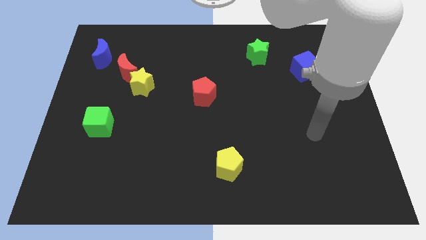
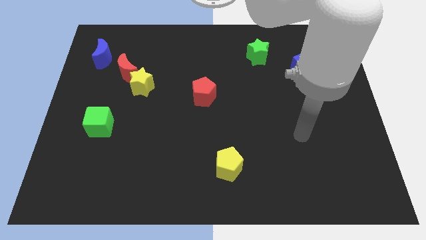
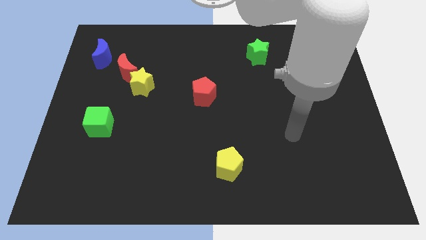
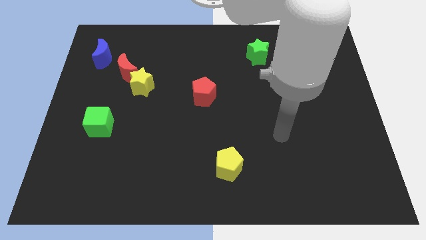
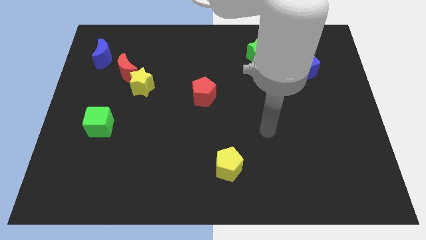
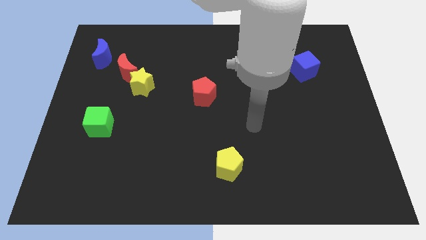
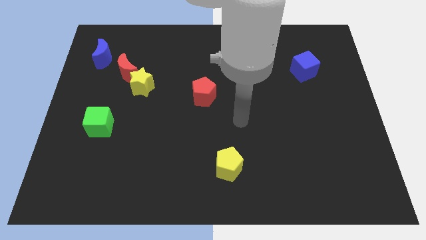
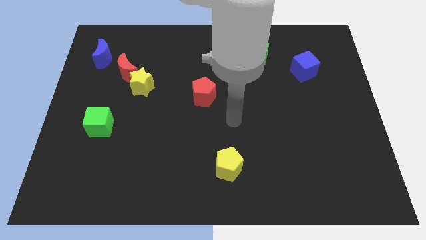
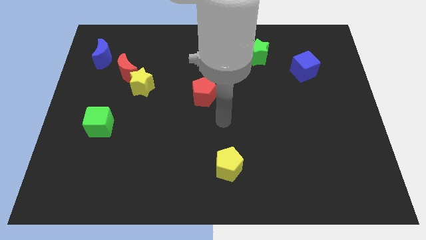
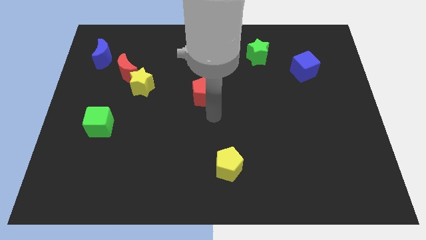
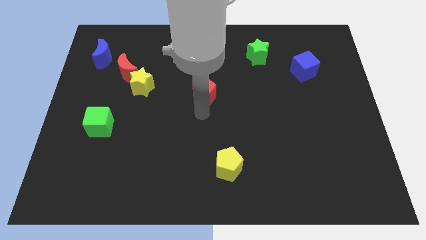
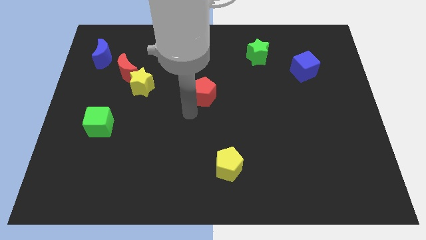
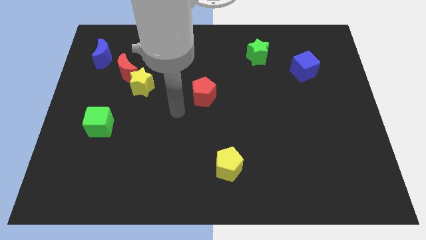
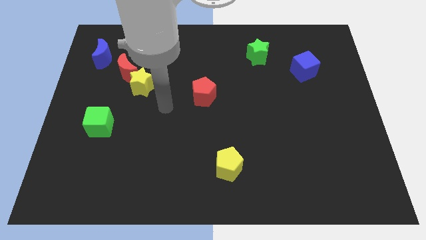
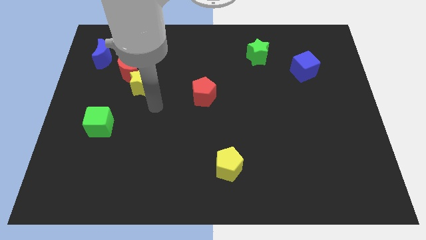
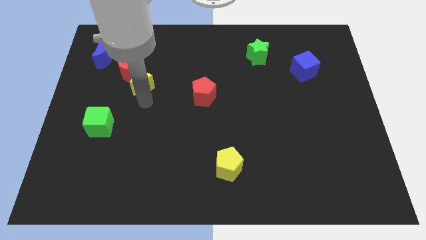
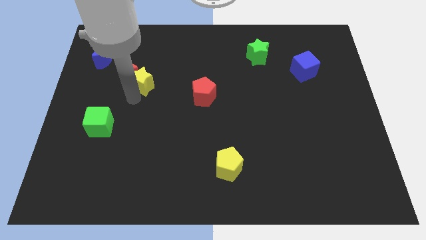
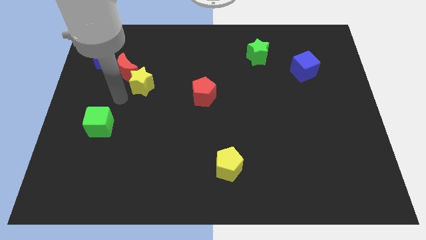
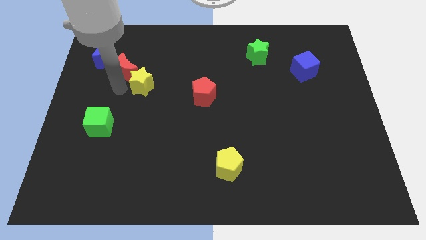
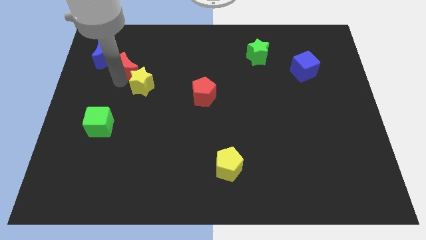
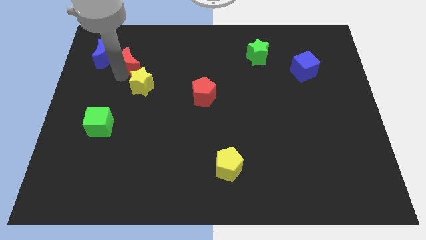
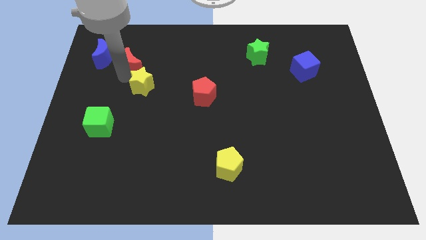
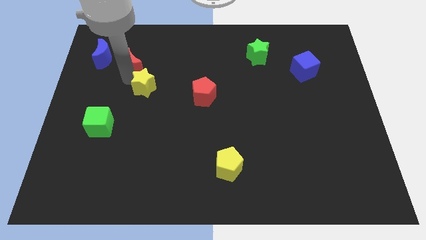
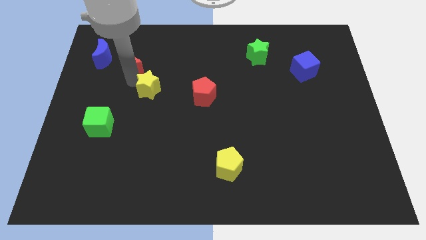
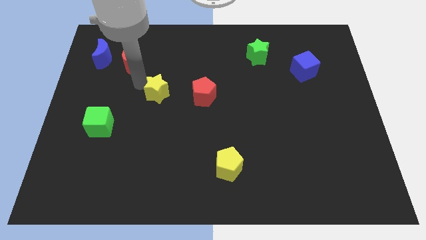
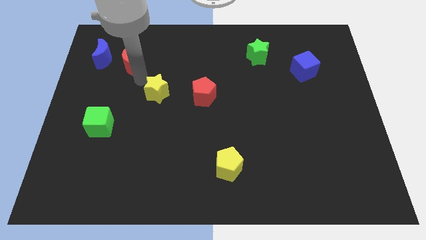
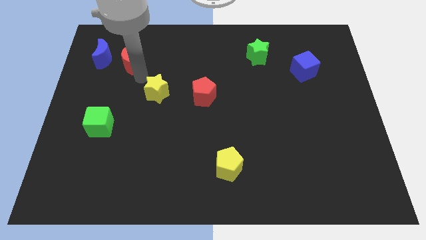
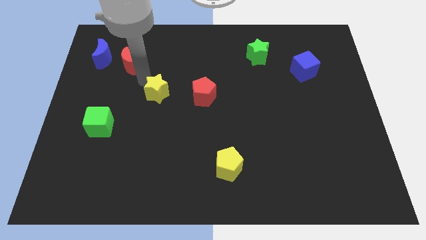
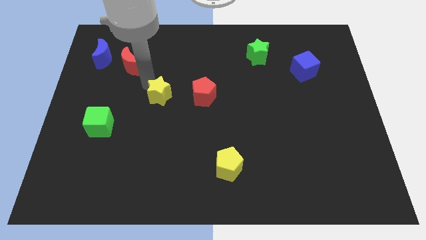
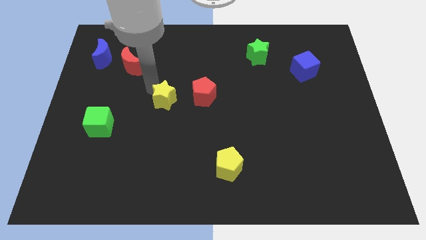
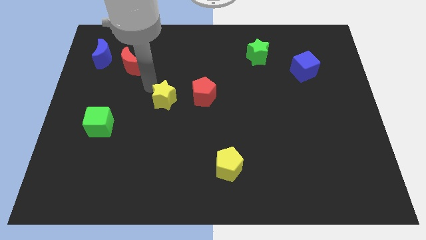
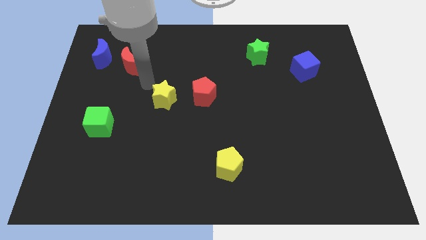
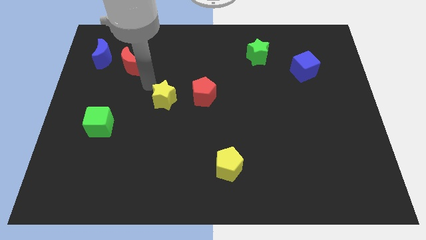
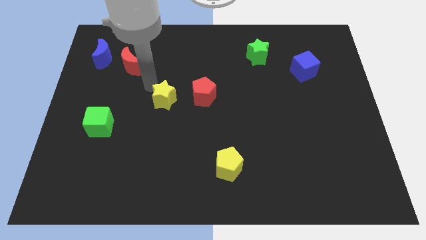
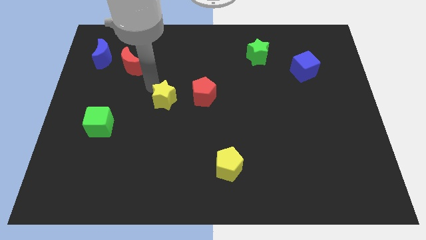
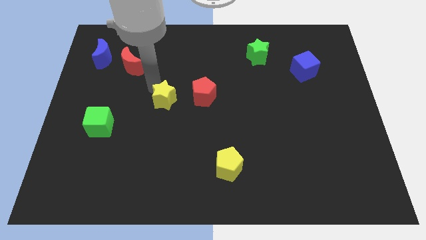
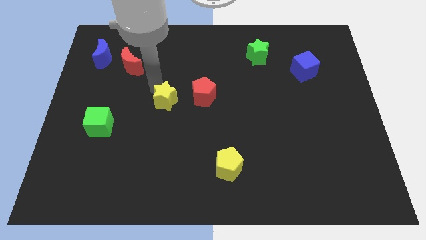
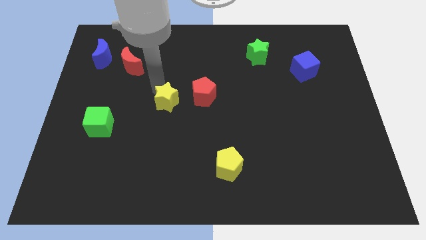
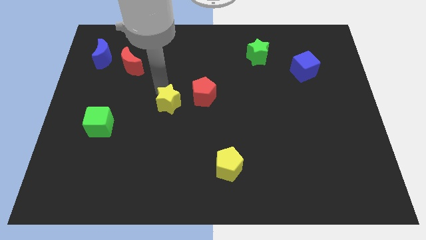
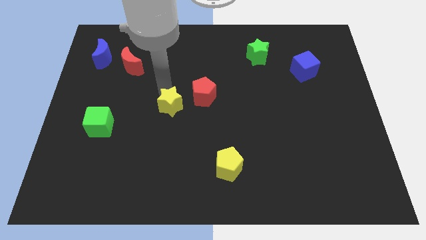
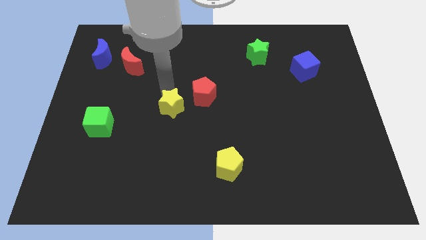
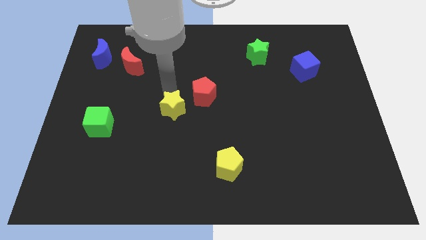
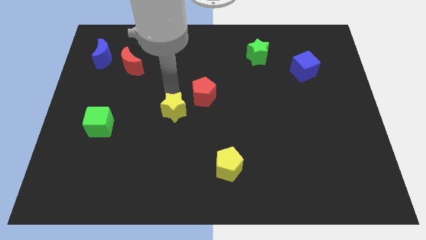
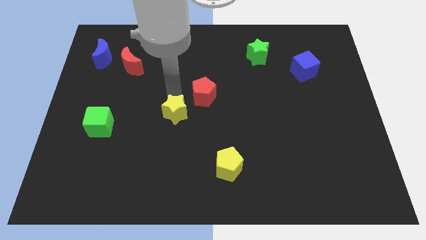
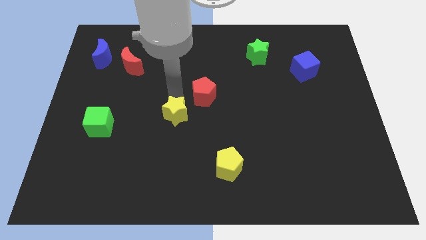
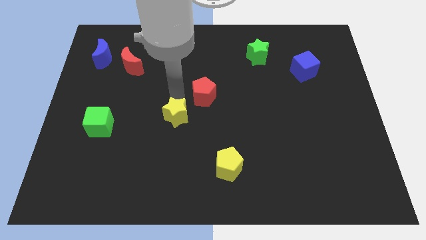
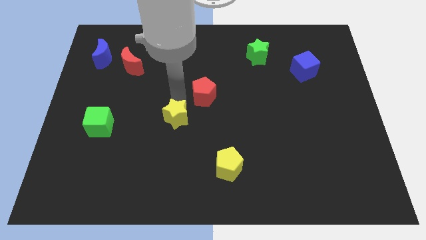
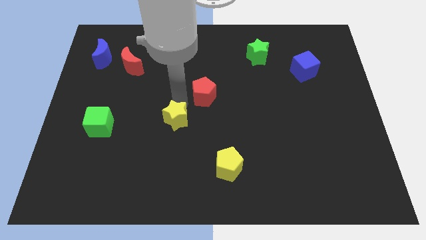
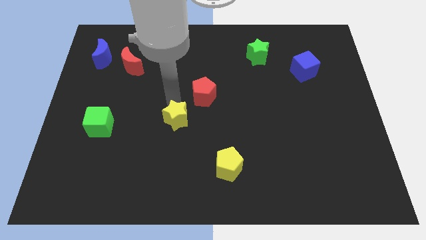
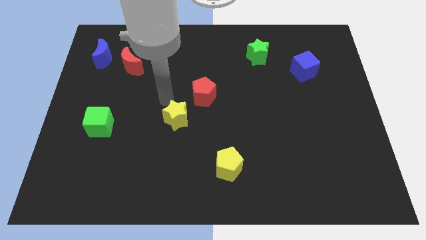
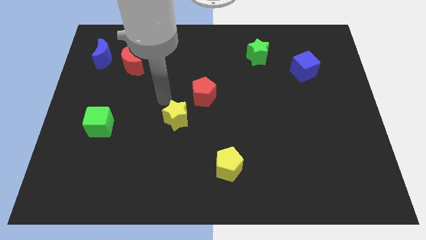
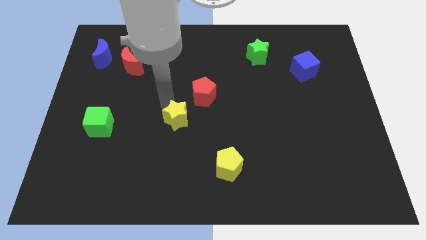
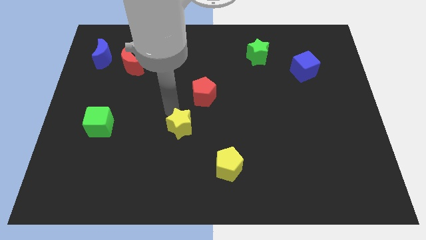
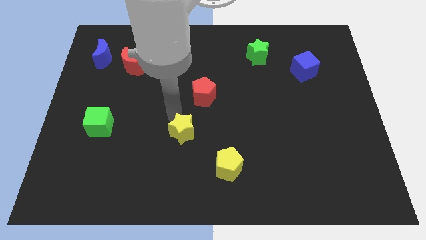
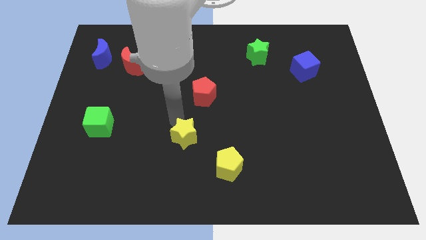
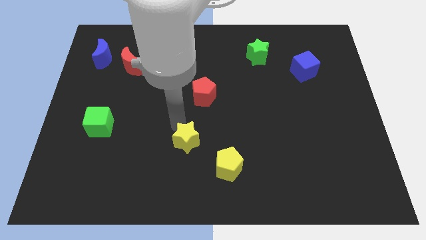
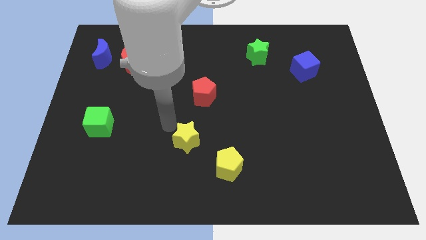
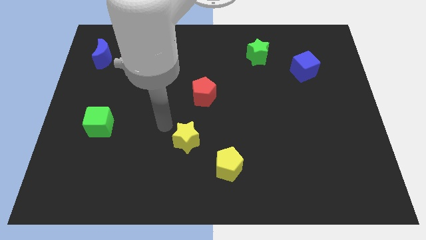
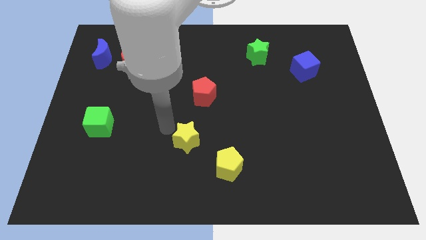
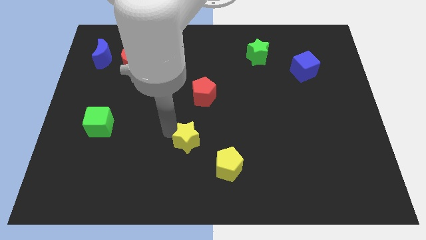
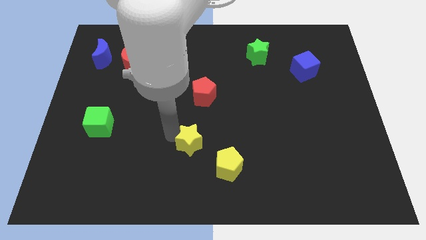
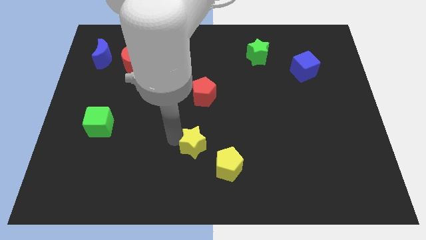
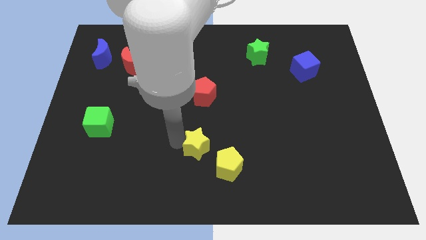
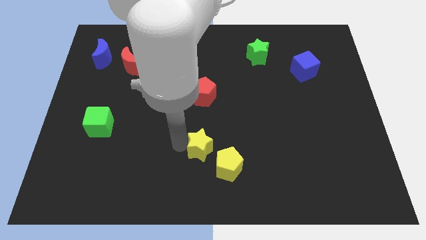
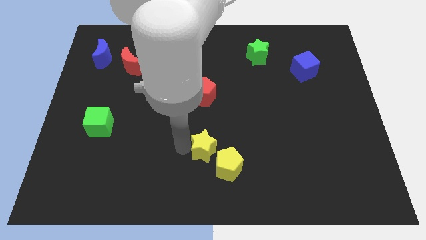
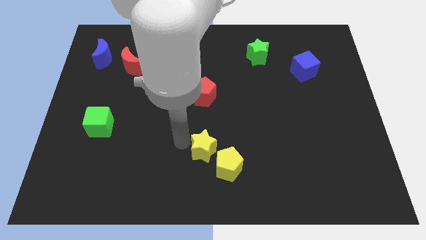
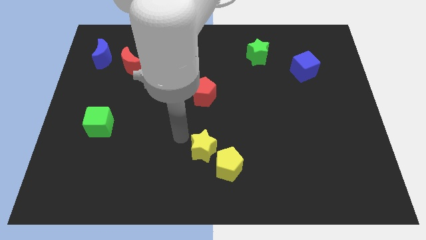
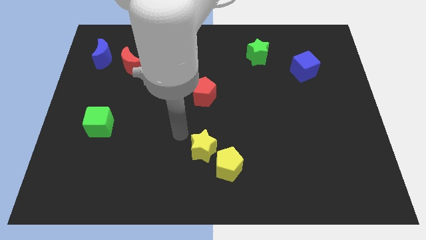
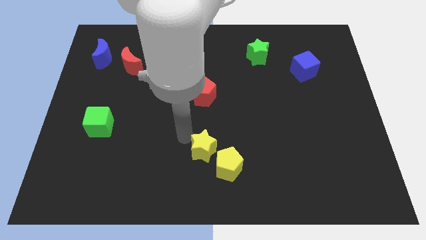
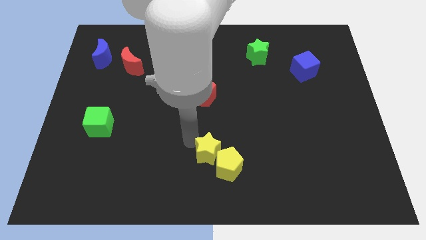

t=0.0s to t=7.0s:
put the yellow star towards the yellow pentagon

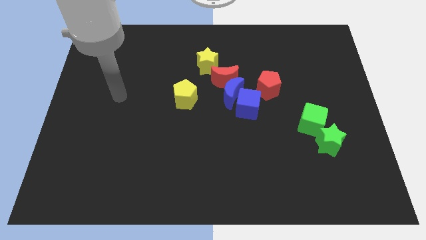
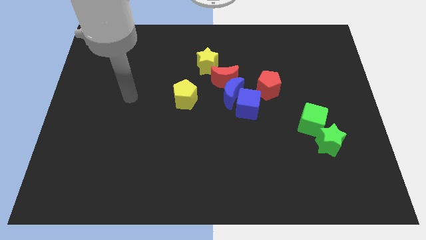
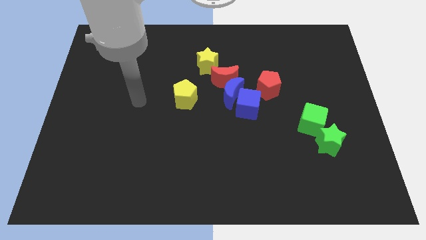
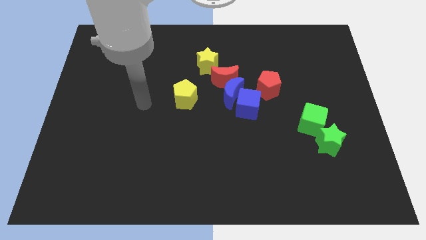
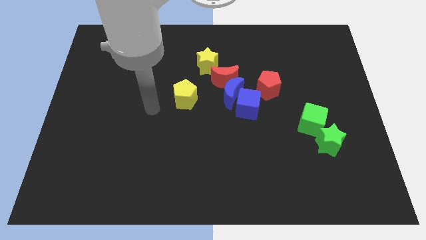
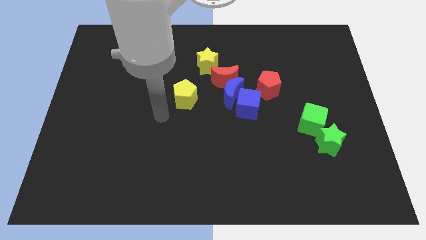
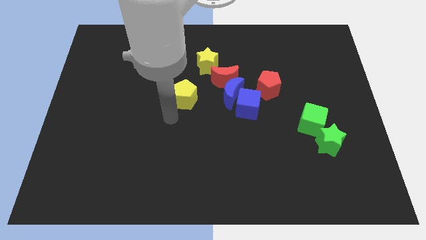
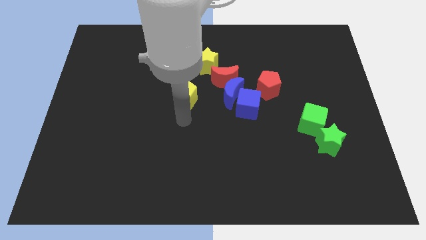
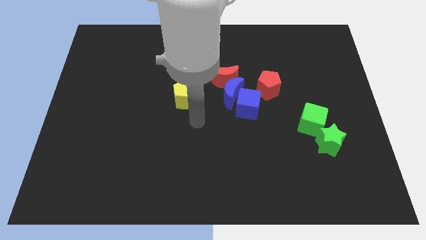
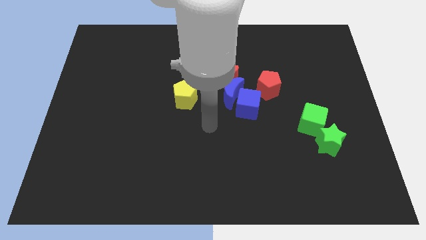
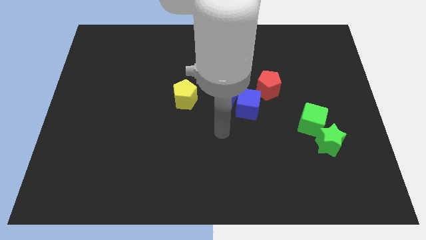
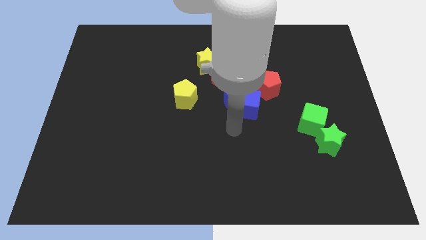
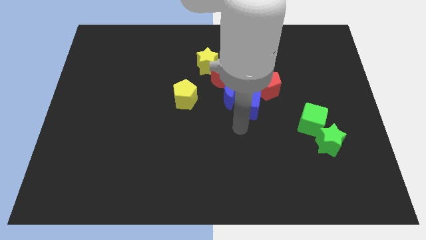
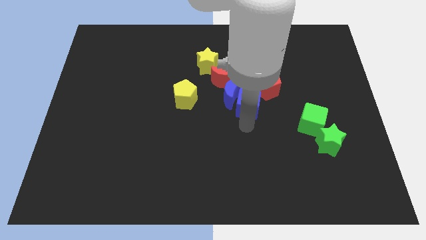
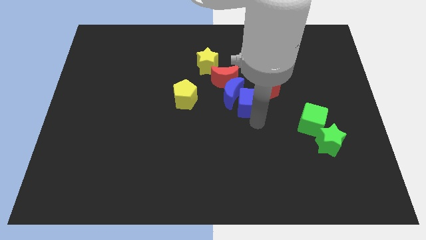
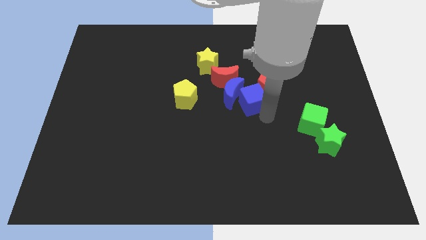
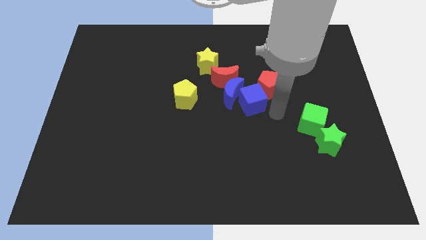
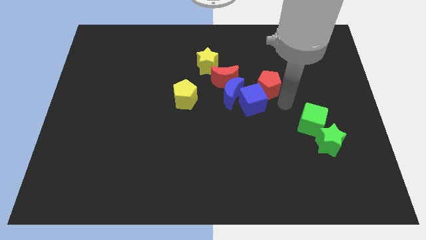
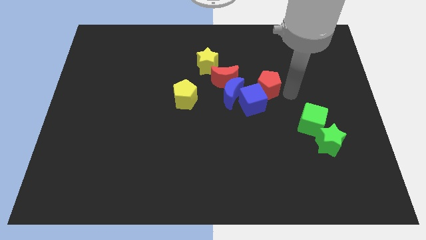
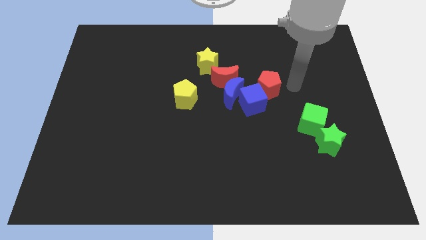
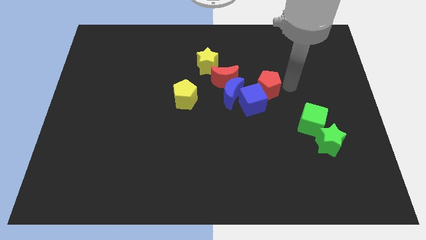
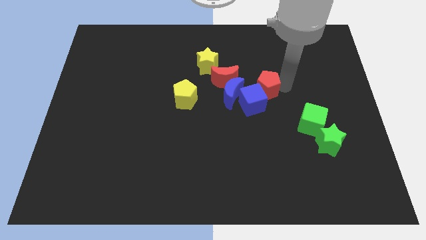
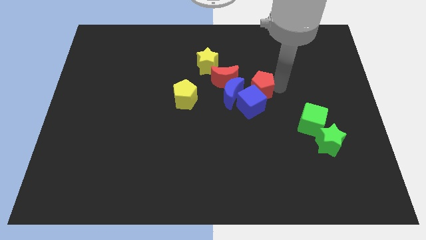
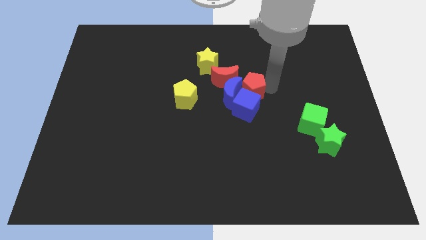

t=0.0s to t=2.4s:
slide the red pentagon to the blue moon
